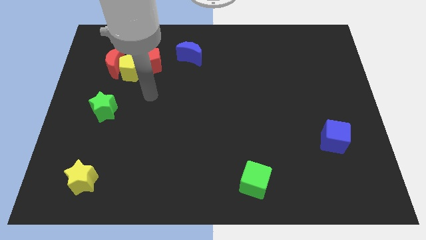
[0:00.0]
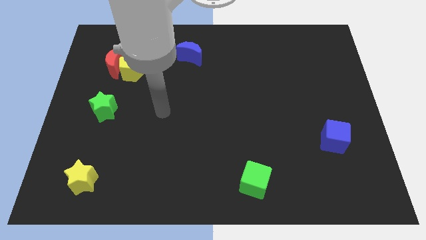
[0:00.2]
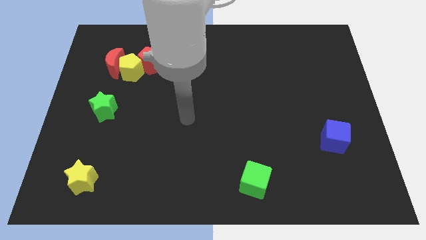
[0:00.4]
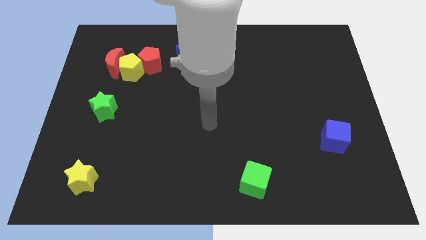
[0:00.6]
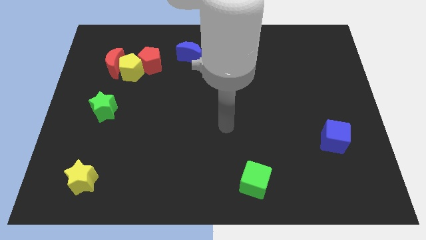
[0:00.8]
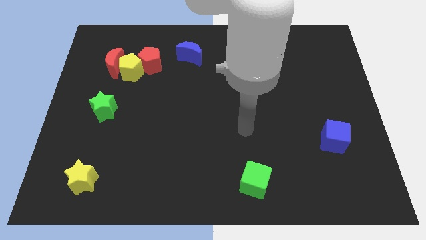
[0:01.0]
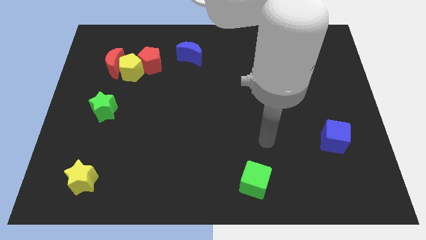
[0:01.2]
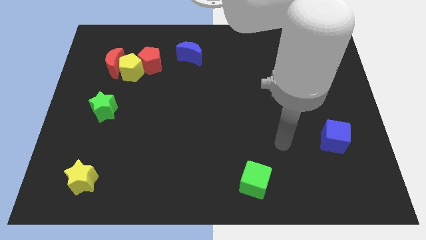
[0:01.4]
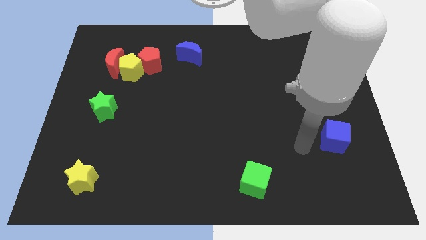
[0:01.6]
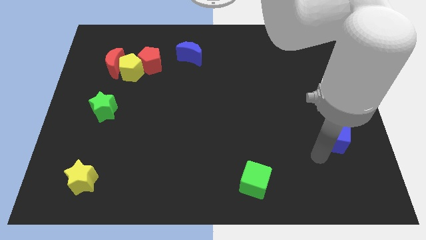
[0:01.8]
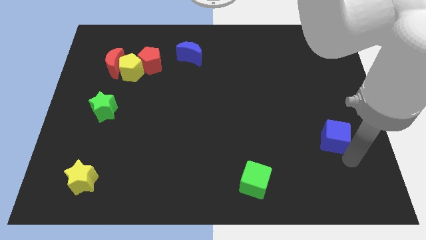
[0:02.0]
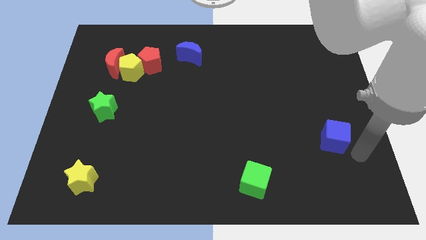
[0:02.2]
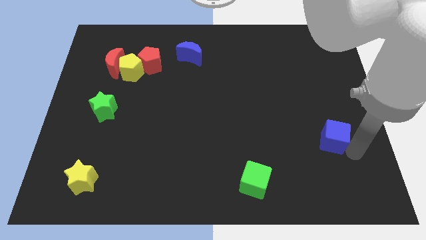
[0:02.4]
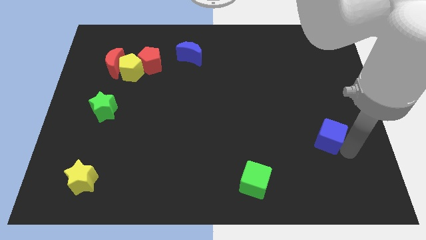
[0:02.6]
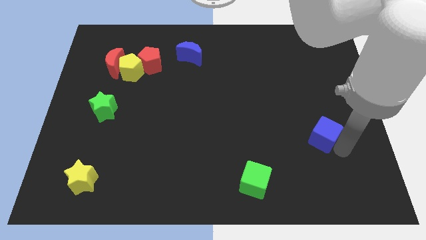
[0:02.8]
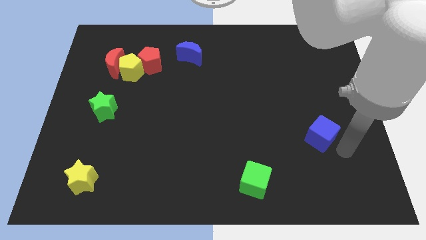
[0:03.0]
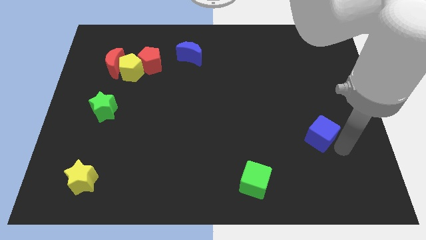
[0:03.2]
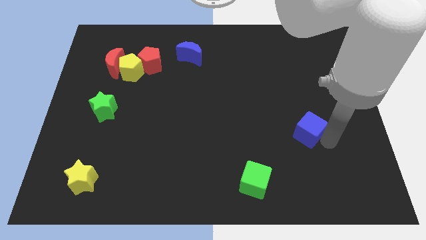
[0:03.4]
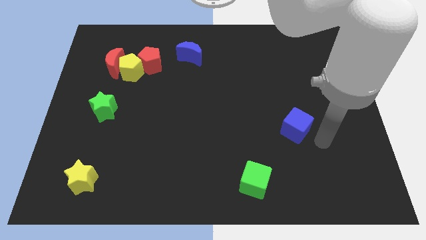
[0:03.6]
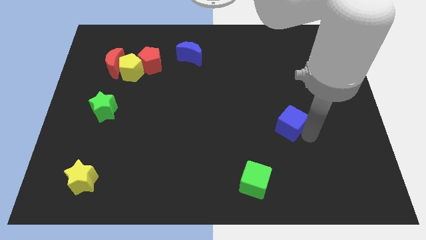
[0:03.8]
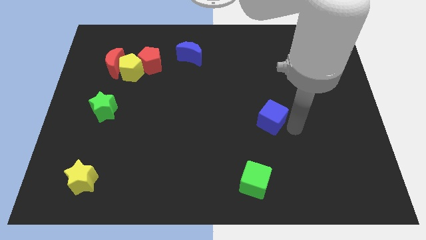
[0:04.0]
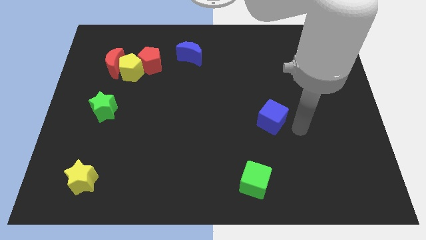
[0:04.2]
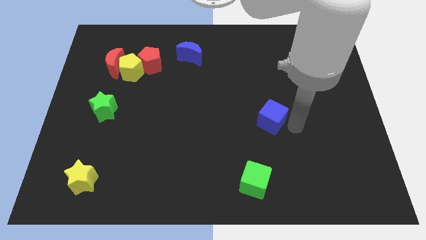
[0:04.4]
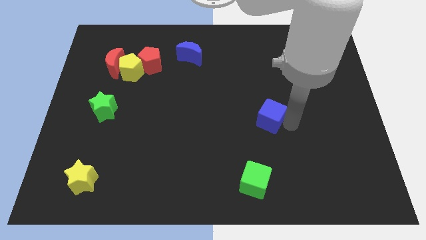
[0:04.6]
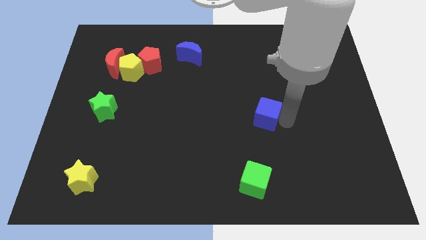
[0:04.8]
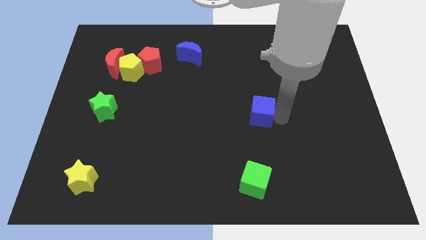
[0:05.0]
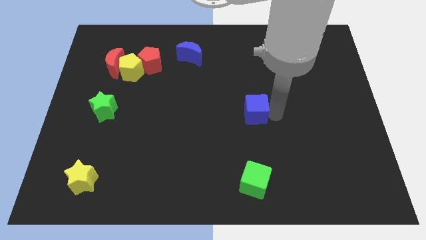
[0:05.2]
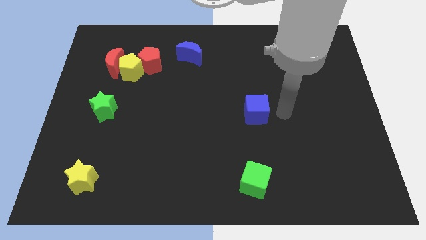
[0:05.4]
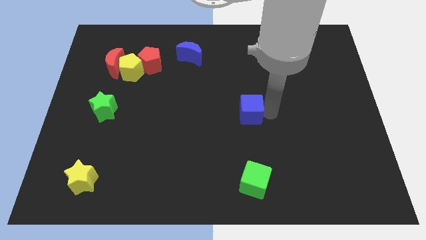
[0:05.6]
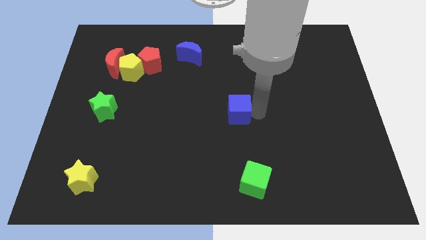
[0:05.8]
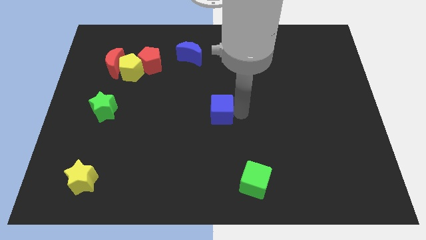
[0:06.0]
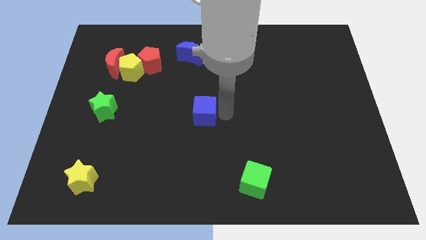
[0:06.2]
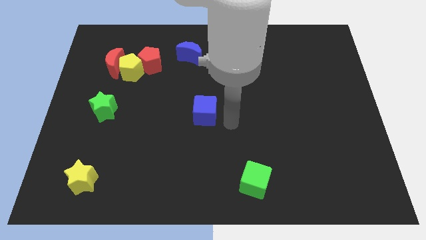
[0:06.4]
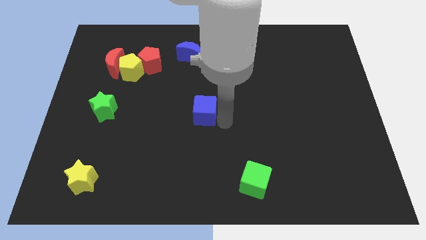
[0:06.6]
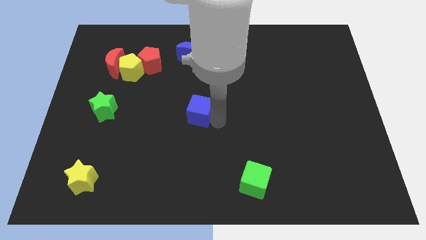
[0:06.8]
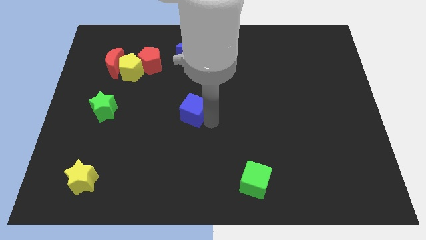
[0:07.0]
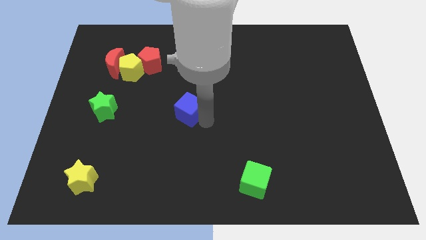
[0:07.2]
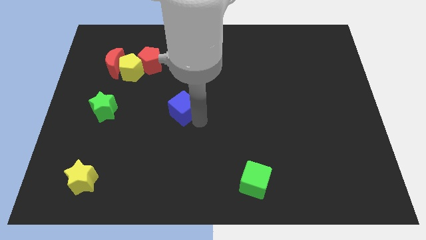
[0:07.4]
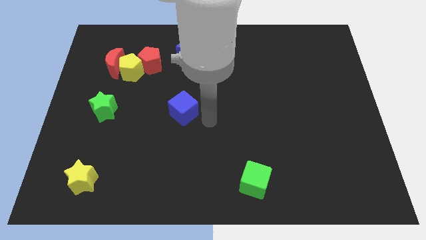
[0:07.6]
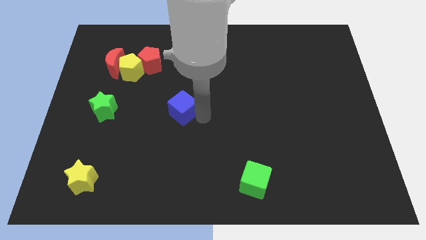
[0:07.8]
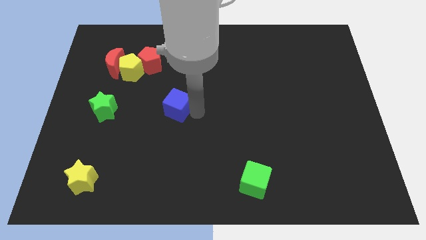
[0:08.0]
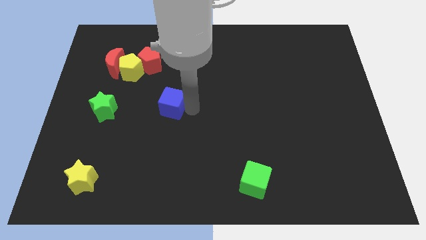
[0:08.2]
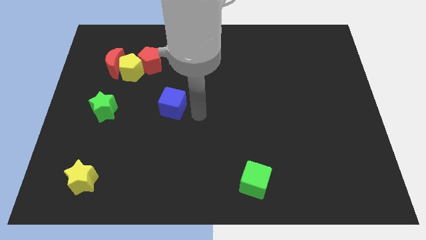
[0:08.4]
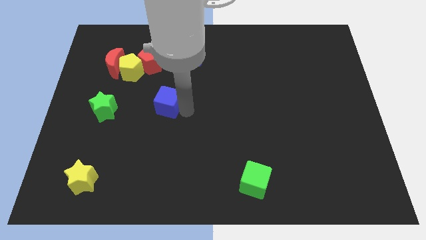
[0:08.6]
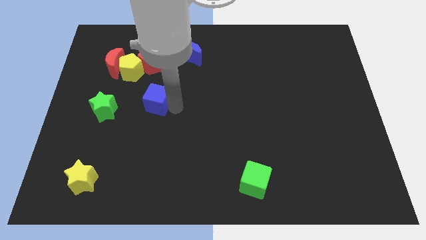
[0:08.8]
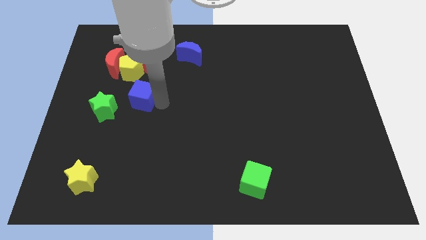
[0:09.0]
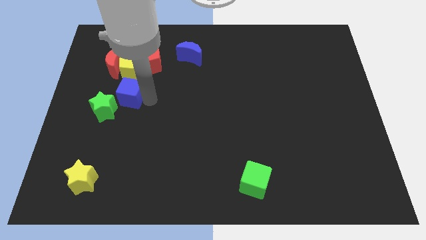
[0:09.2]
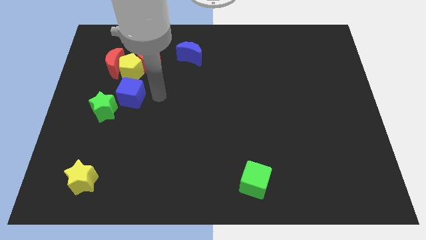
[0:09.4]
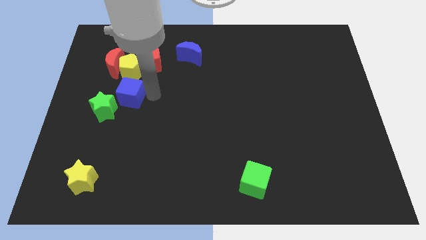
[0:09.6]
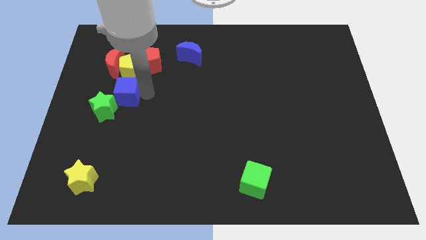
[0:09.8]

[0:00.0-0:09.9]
slide the blue cube below the red moon

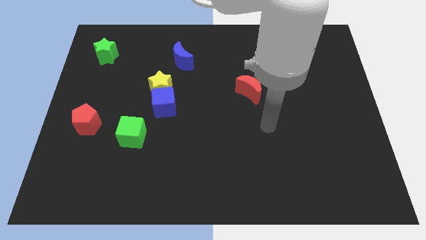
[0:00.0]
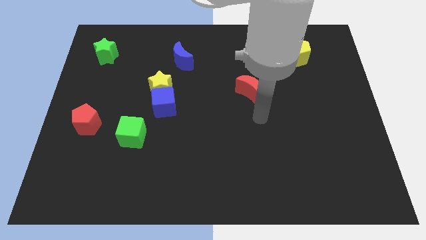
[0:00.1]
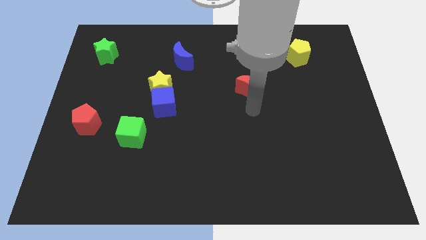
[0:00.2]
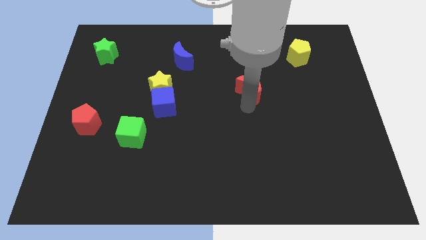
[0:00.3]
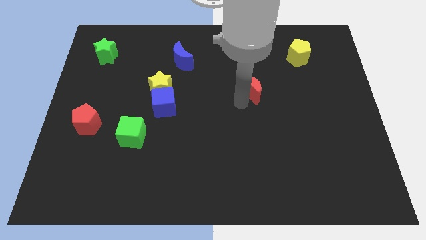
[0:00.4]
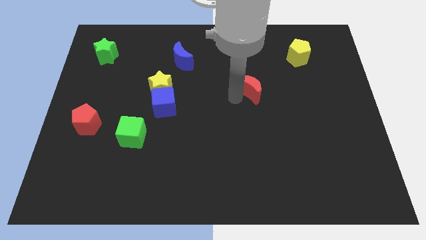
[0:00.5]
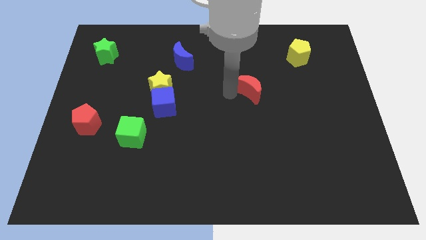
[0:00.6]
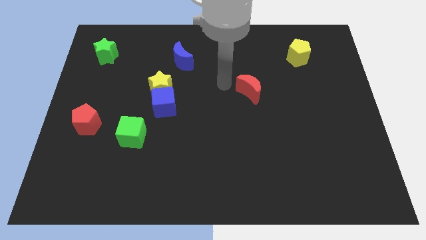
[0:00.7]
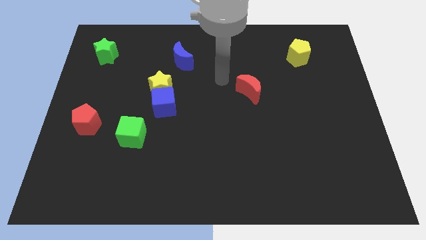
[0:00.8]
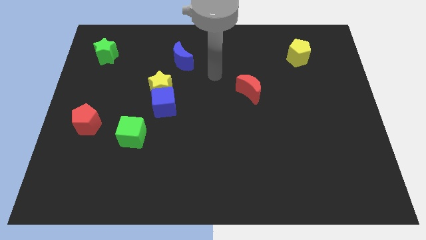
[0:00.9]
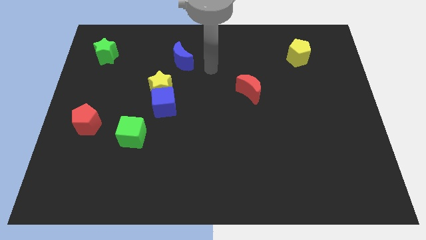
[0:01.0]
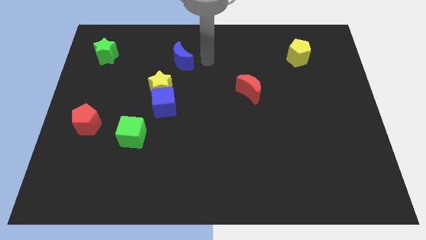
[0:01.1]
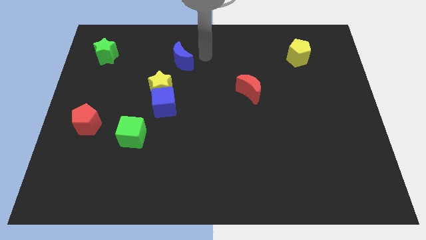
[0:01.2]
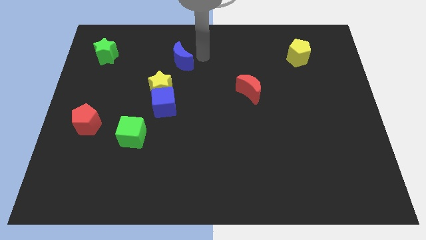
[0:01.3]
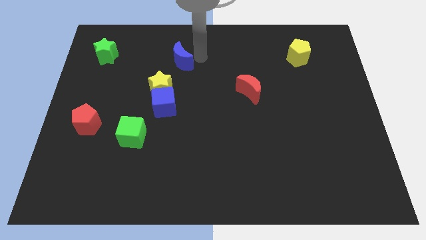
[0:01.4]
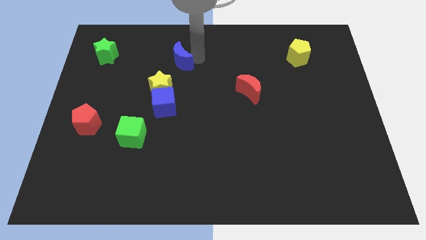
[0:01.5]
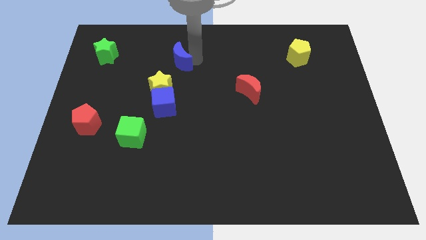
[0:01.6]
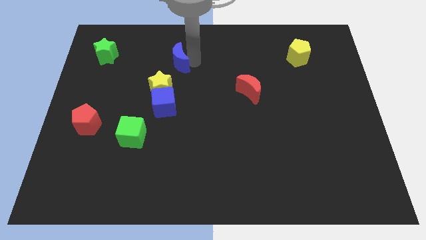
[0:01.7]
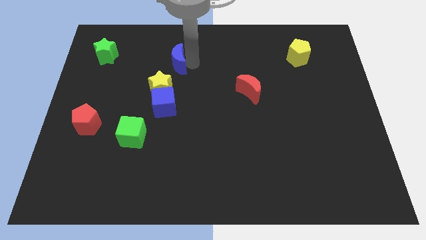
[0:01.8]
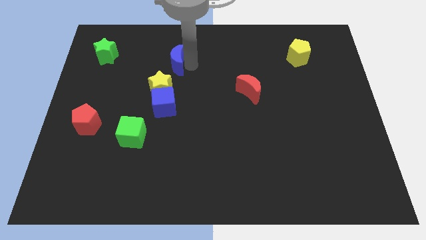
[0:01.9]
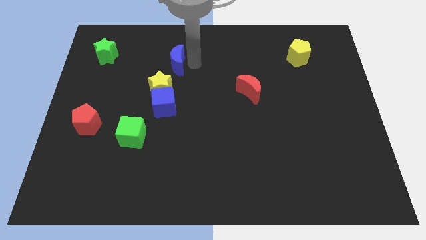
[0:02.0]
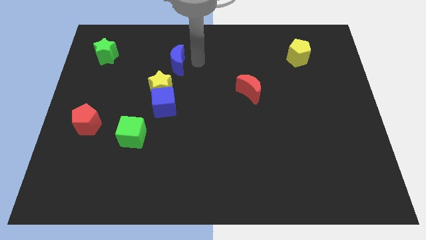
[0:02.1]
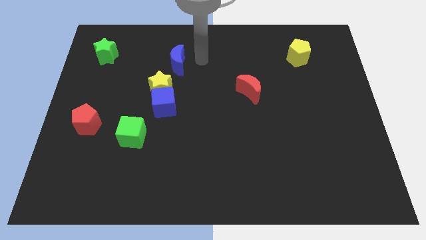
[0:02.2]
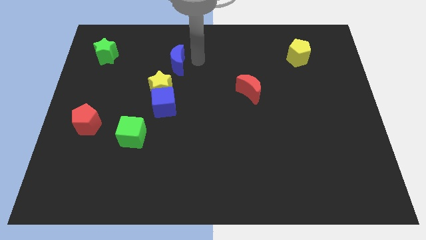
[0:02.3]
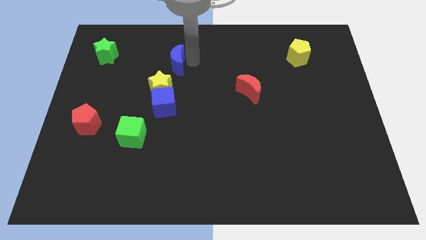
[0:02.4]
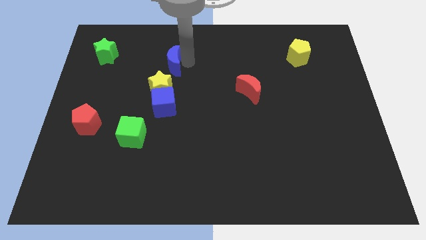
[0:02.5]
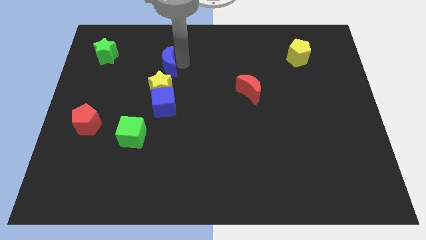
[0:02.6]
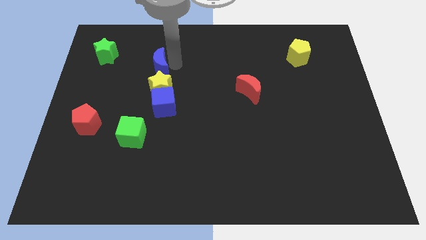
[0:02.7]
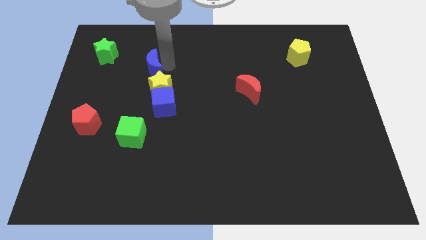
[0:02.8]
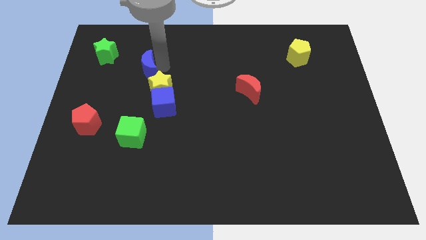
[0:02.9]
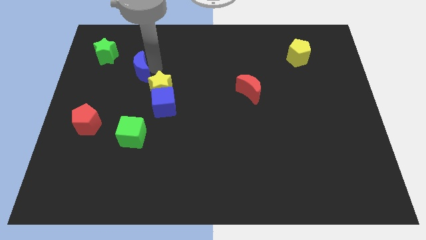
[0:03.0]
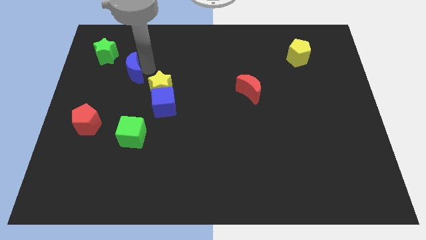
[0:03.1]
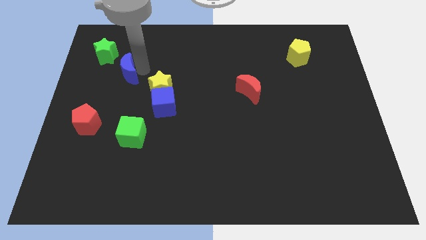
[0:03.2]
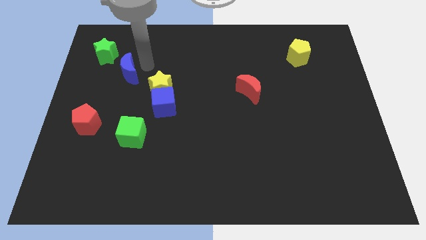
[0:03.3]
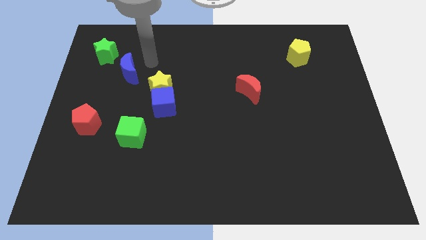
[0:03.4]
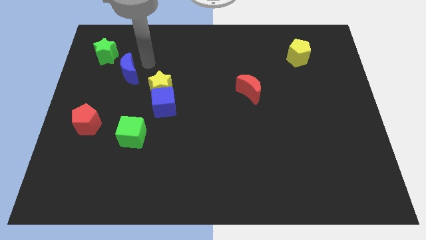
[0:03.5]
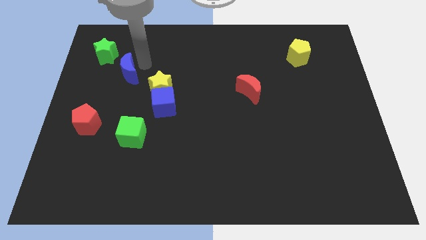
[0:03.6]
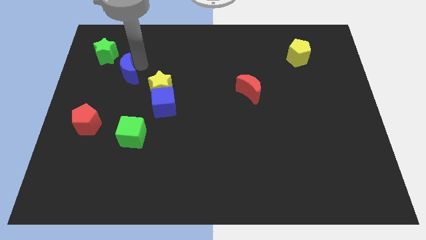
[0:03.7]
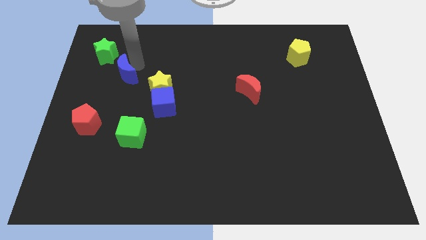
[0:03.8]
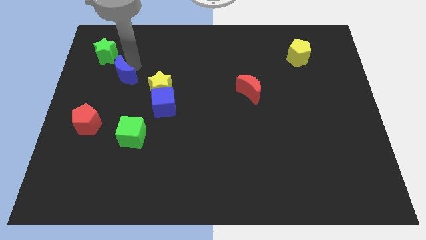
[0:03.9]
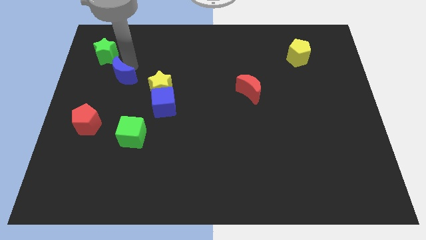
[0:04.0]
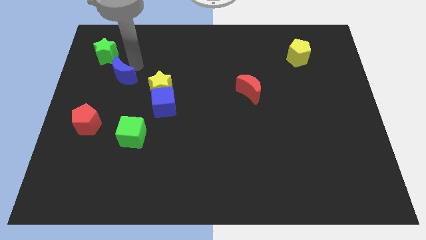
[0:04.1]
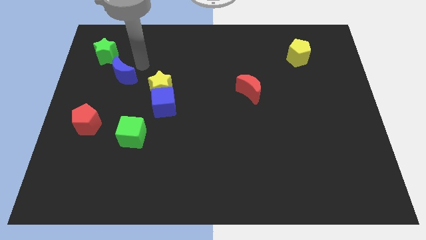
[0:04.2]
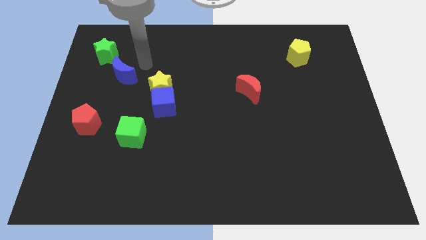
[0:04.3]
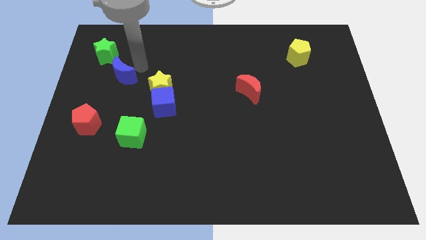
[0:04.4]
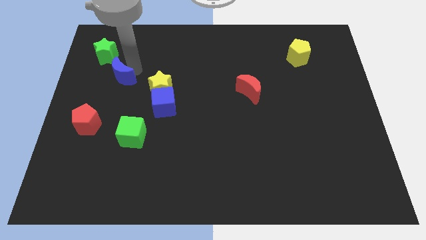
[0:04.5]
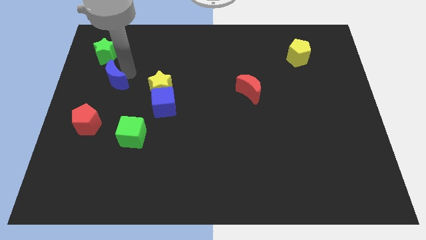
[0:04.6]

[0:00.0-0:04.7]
slide the blue moon above the red pentagon
